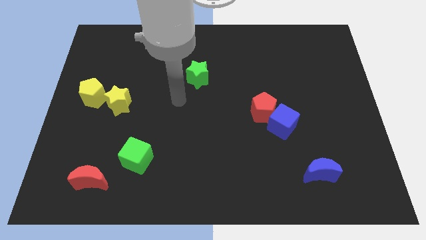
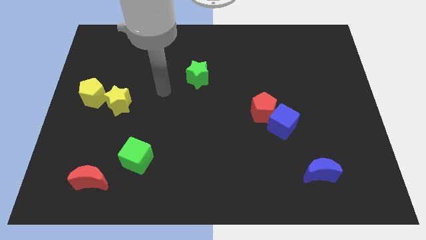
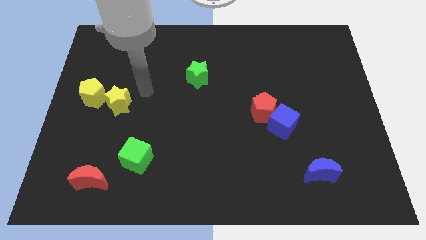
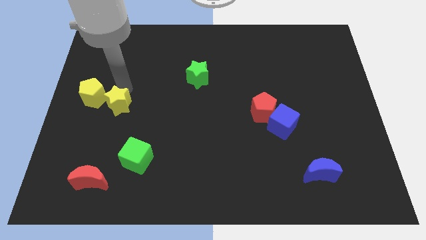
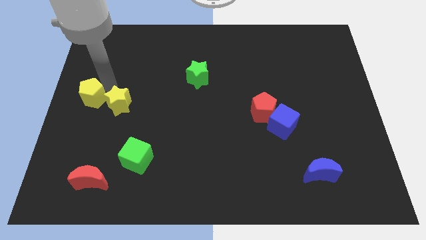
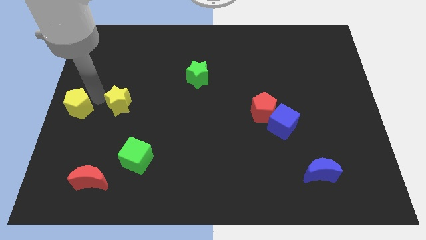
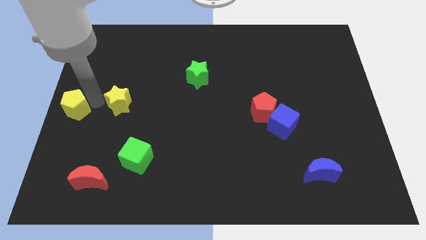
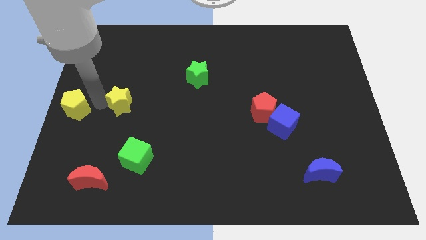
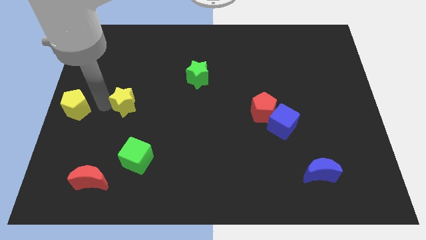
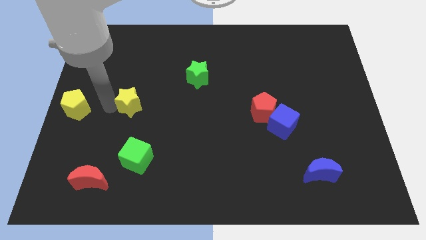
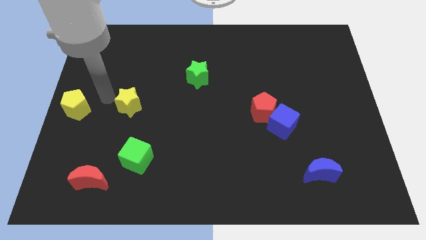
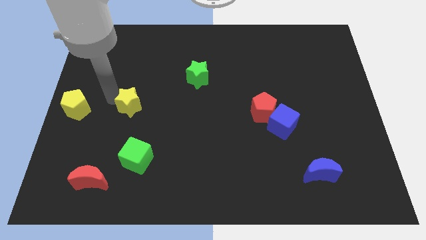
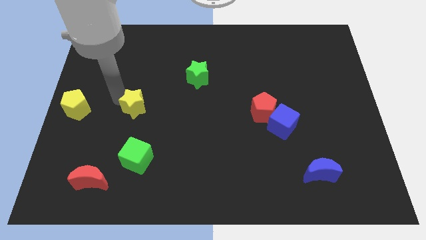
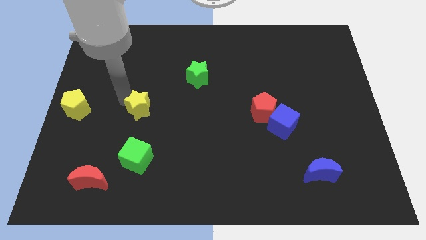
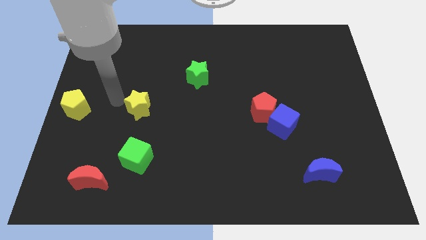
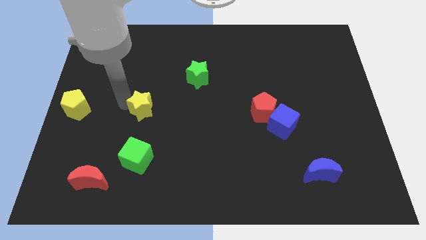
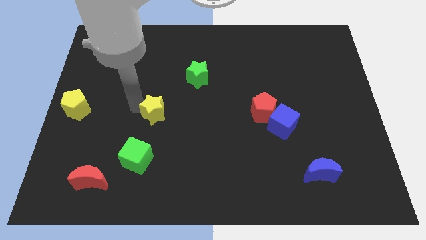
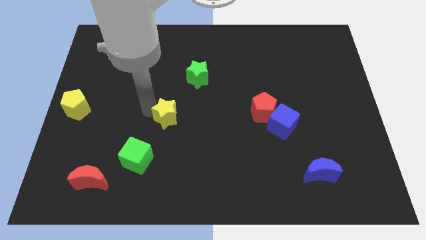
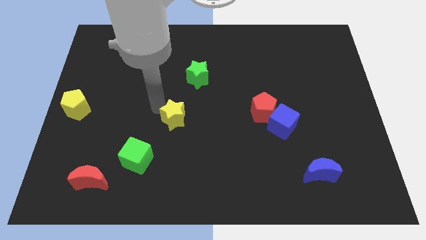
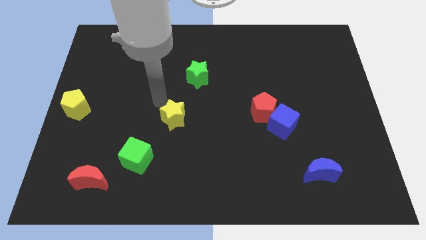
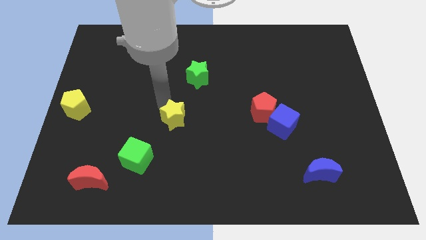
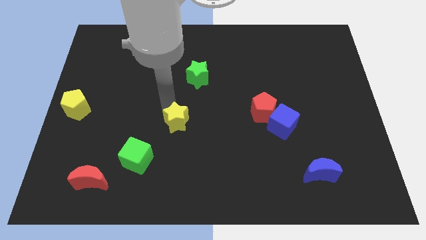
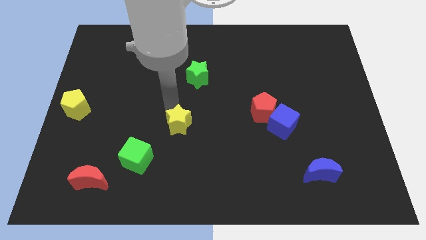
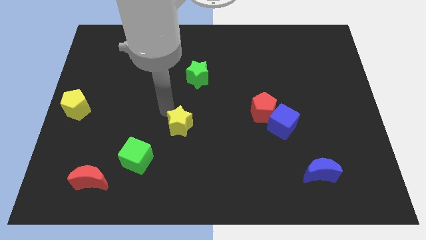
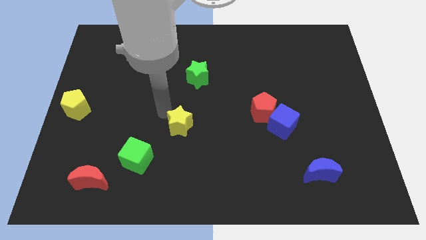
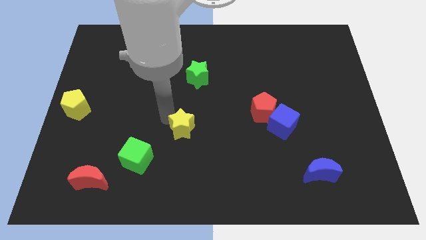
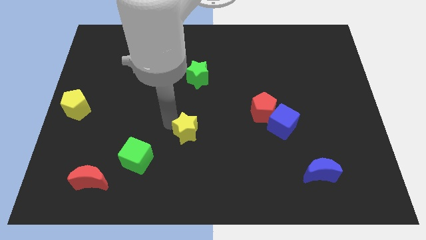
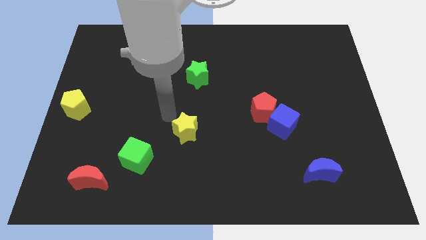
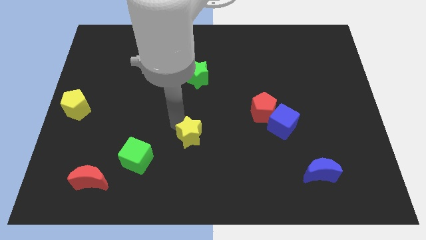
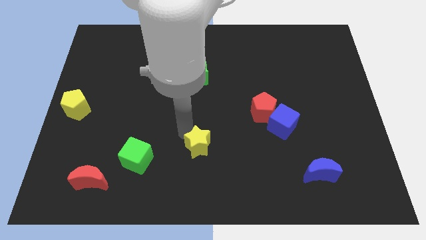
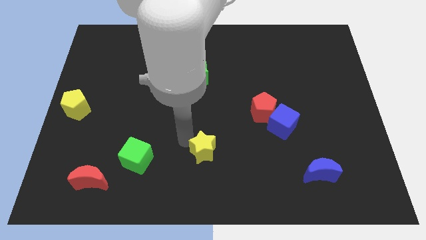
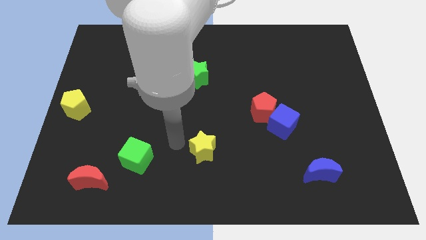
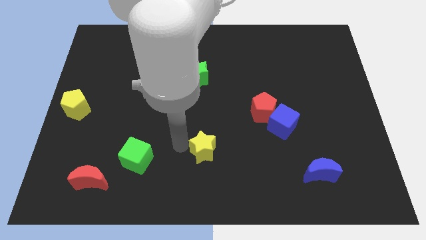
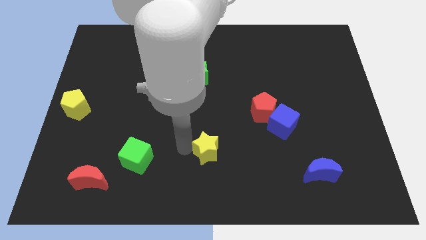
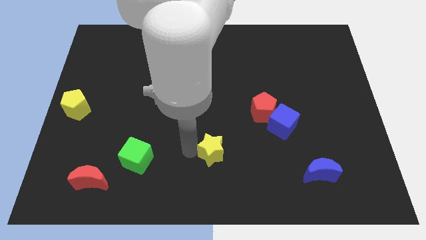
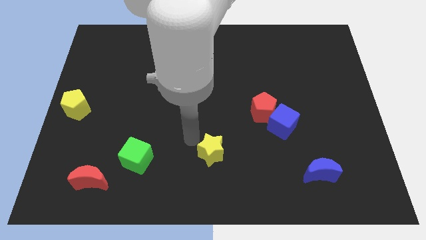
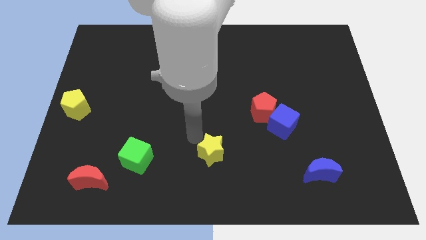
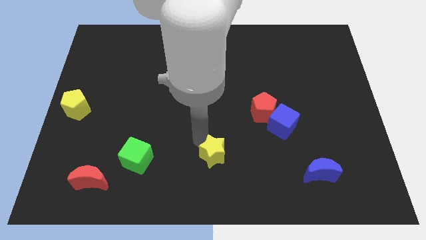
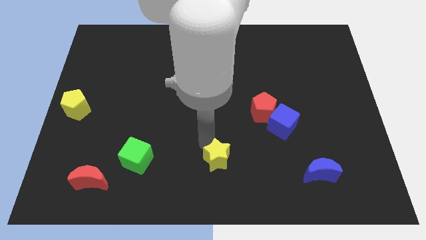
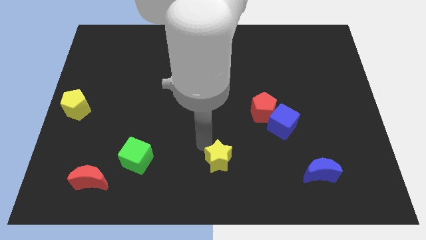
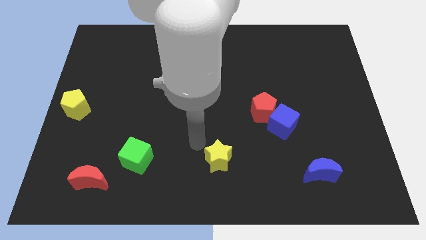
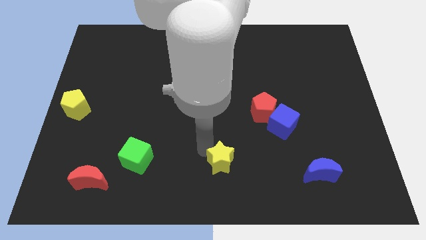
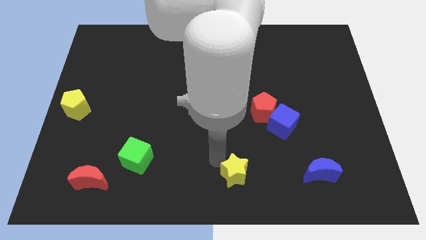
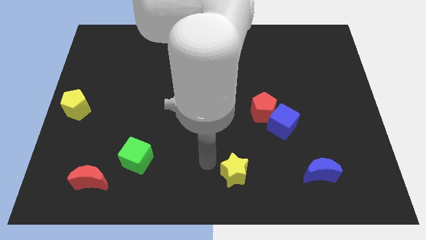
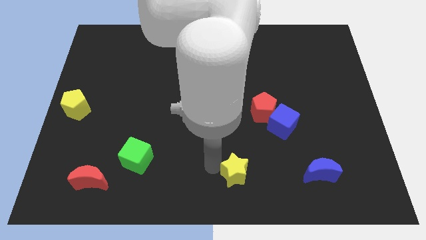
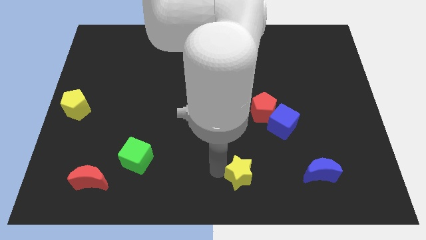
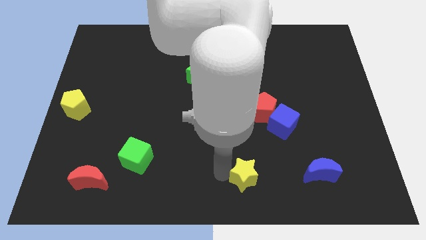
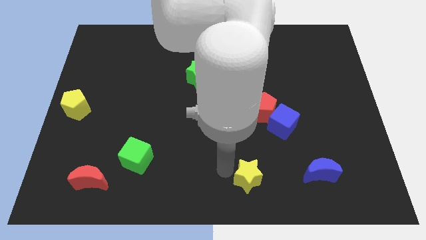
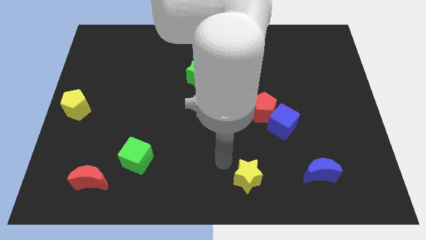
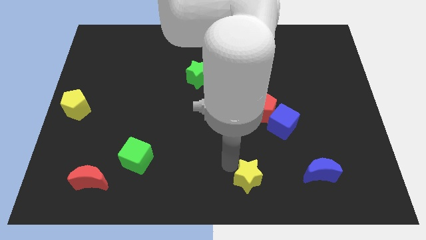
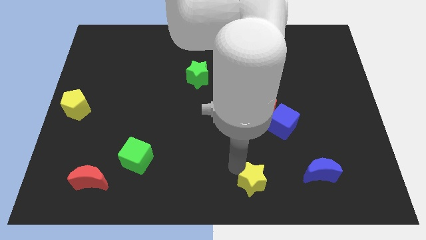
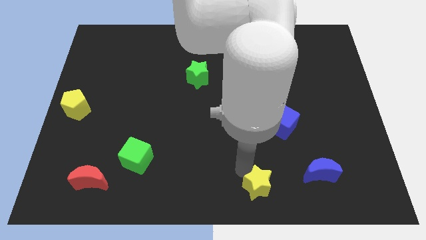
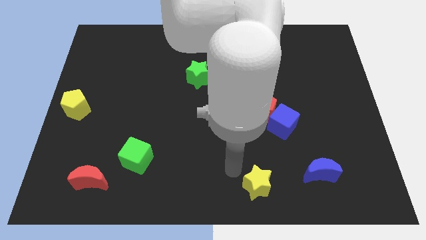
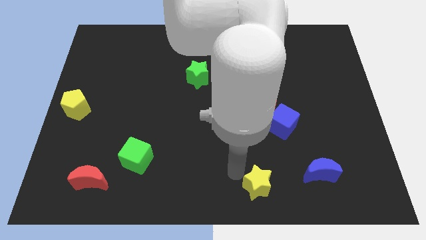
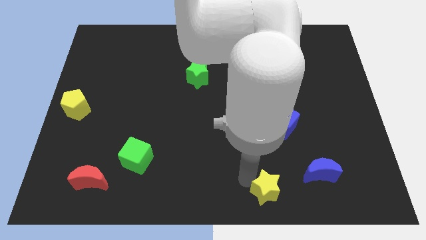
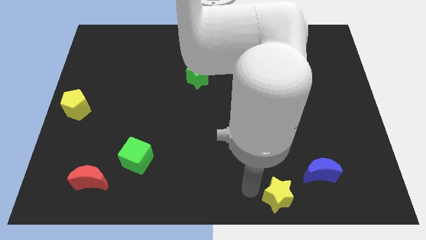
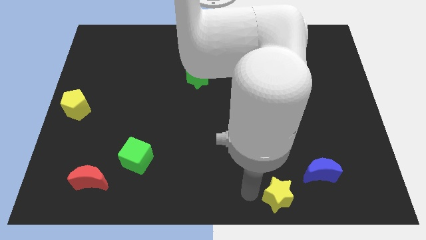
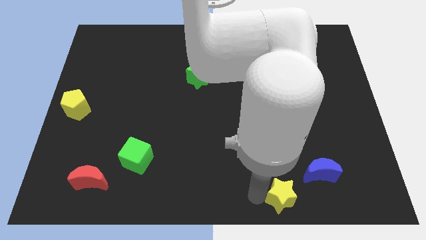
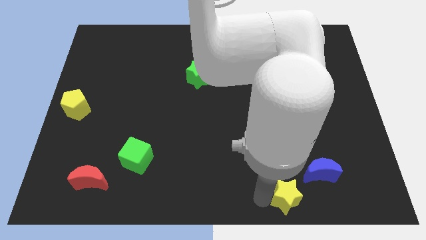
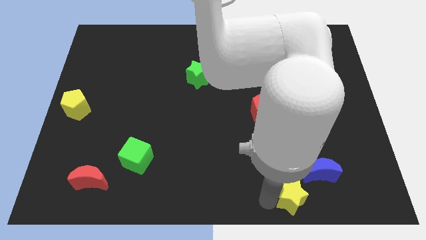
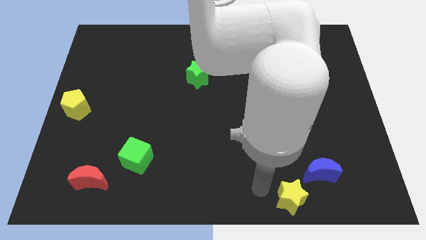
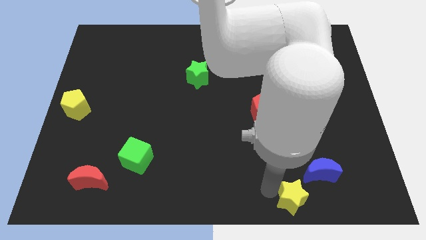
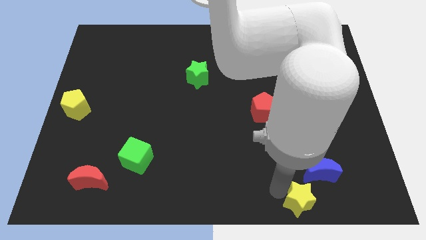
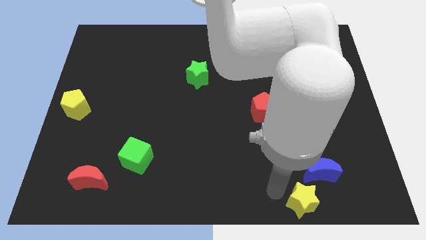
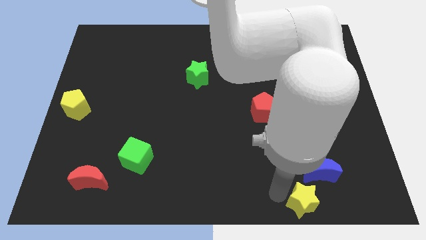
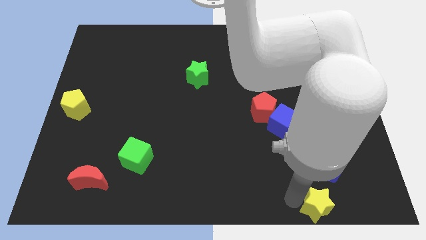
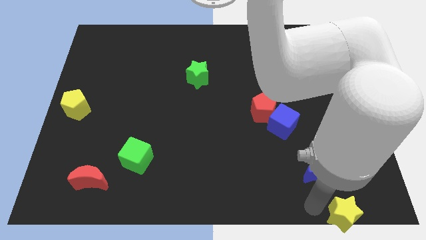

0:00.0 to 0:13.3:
slide the yellow star to the bottom right
